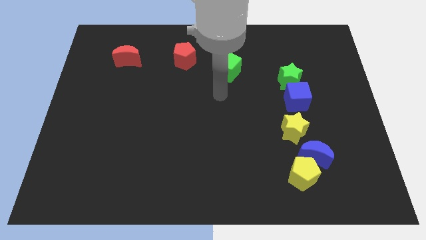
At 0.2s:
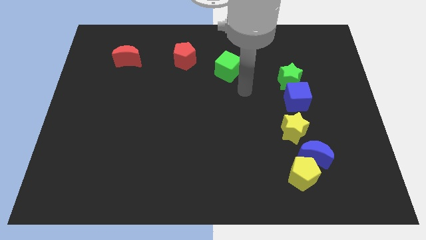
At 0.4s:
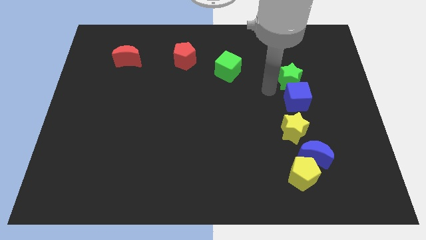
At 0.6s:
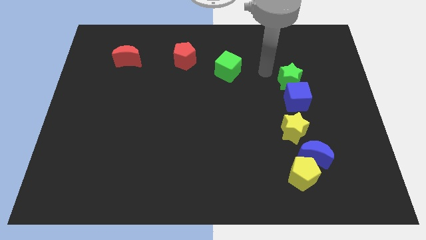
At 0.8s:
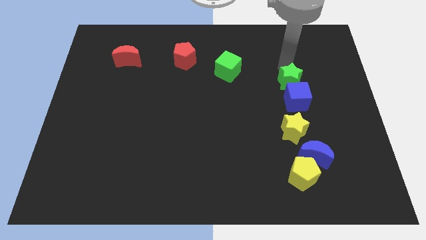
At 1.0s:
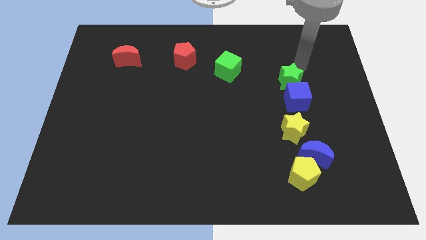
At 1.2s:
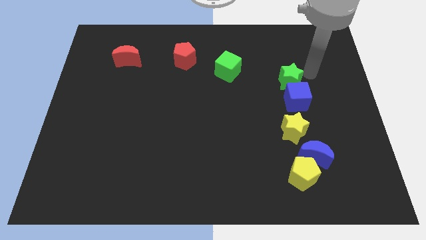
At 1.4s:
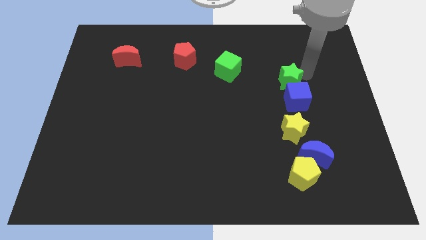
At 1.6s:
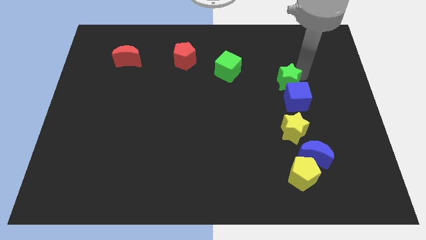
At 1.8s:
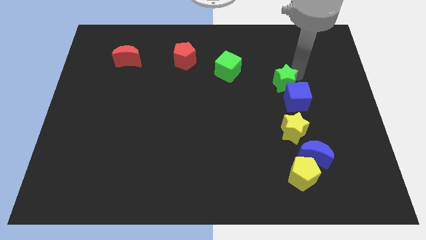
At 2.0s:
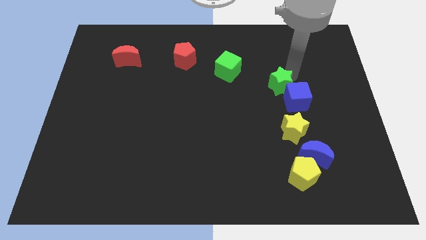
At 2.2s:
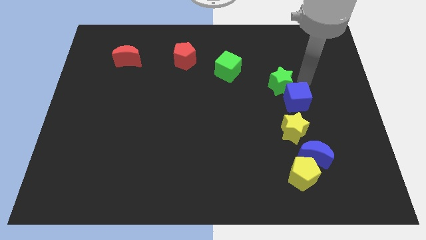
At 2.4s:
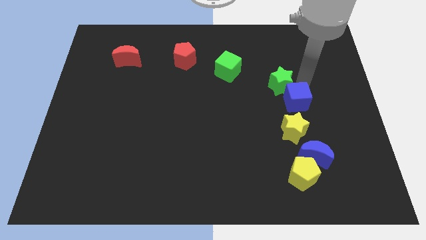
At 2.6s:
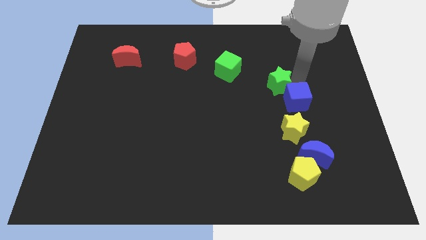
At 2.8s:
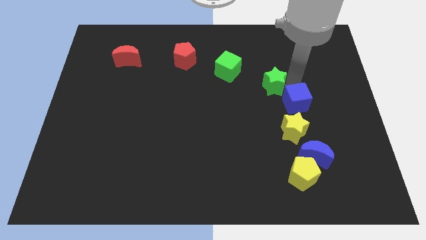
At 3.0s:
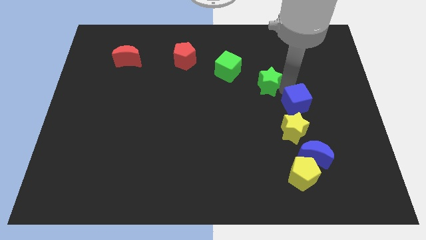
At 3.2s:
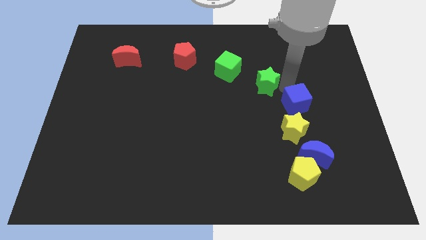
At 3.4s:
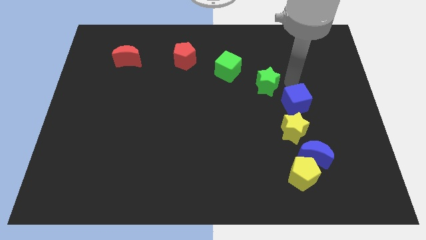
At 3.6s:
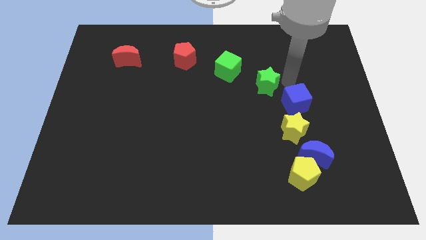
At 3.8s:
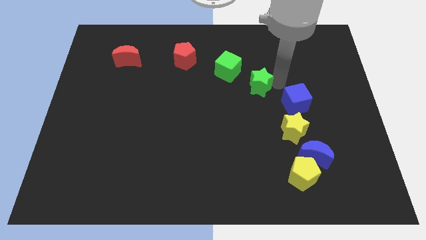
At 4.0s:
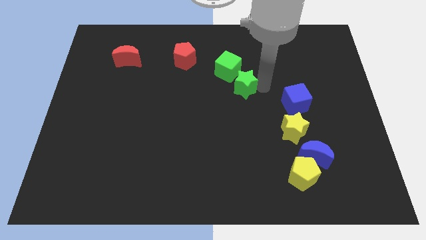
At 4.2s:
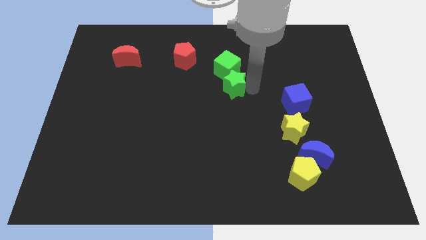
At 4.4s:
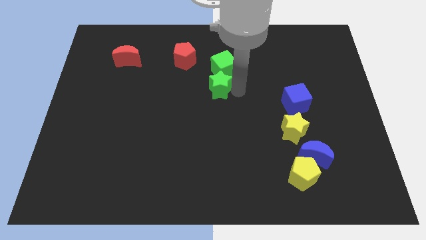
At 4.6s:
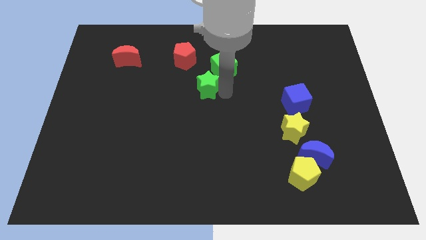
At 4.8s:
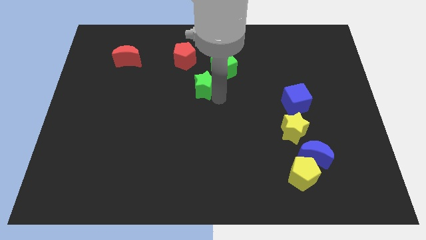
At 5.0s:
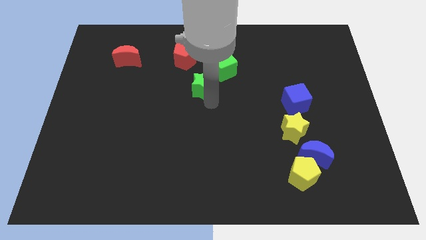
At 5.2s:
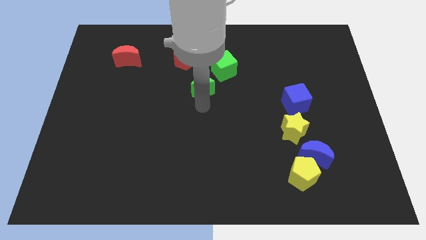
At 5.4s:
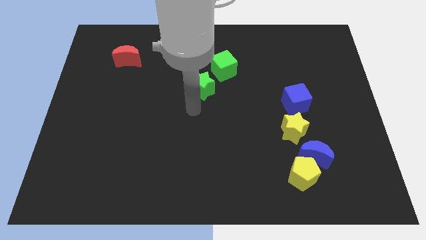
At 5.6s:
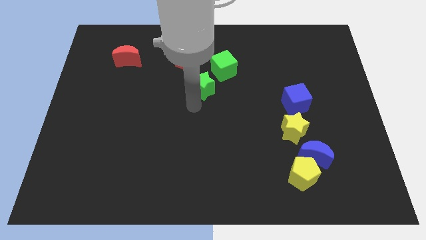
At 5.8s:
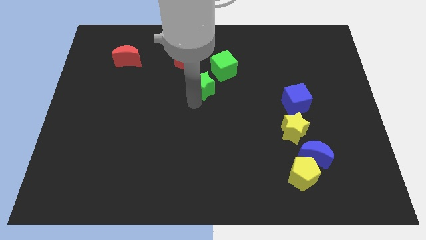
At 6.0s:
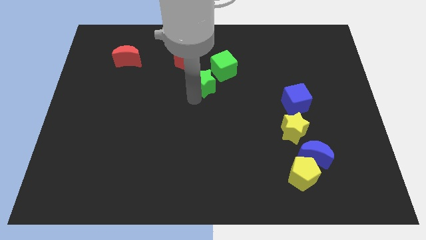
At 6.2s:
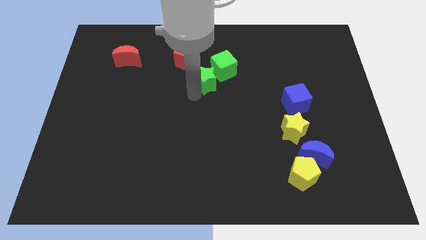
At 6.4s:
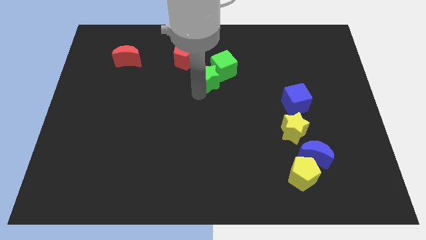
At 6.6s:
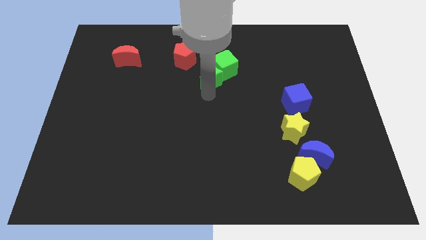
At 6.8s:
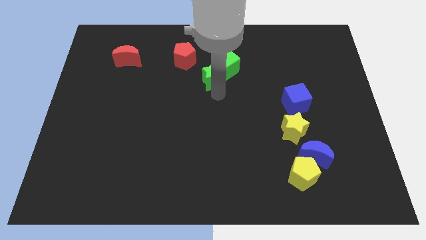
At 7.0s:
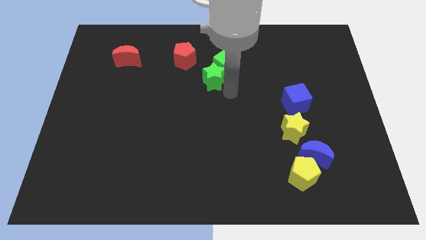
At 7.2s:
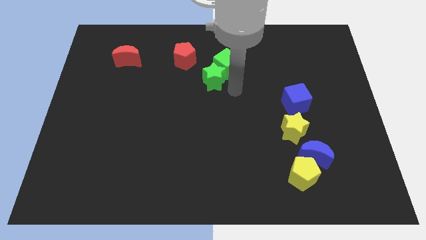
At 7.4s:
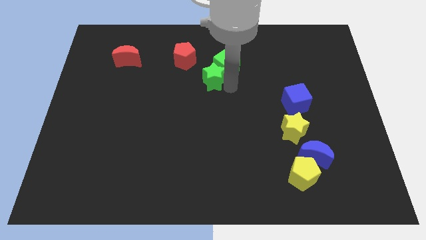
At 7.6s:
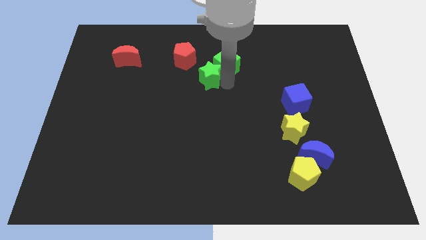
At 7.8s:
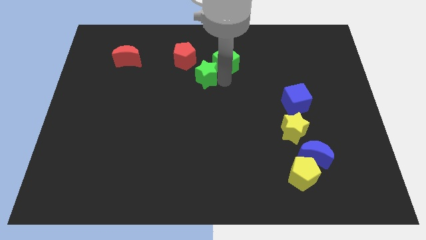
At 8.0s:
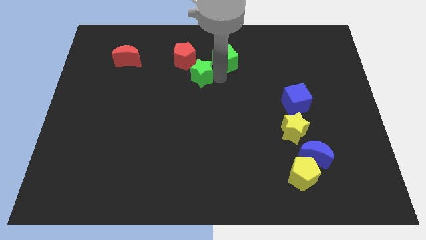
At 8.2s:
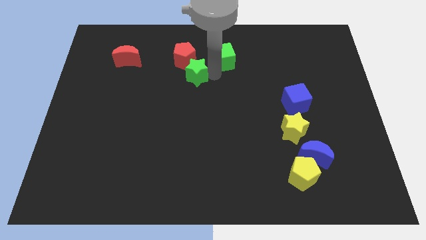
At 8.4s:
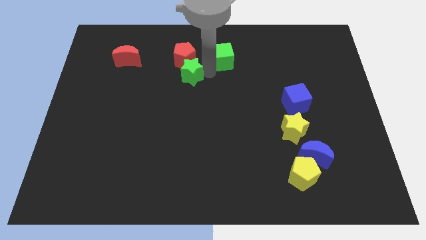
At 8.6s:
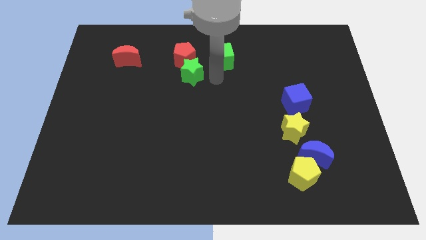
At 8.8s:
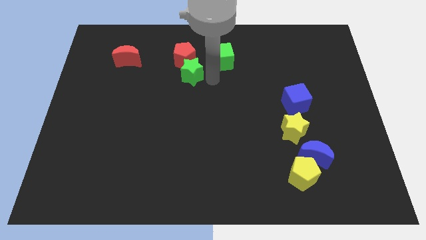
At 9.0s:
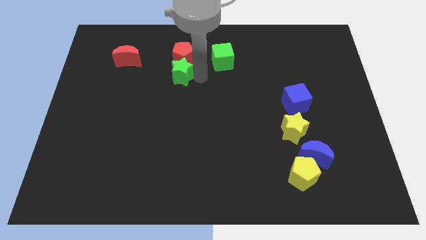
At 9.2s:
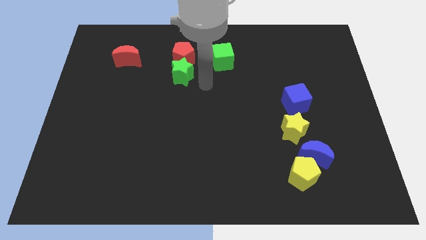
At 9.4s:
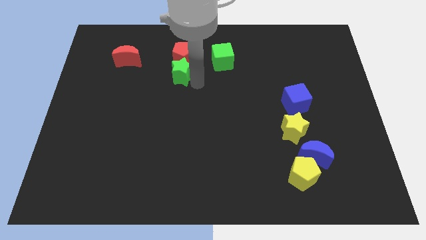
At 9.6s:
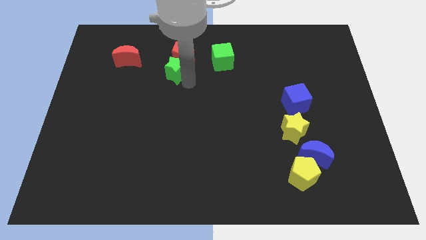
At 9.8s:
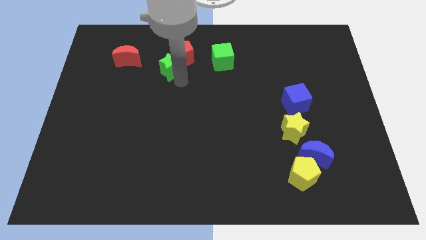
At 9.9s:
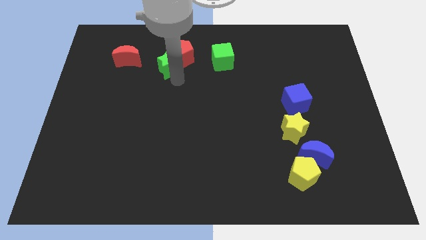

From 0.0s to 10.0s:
move the green star to the left of the red pentagon

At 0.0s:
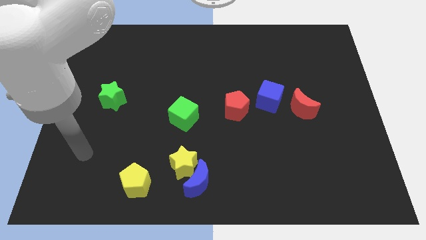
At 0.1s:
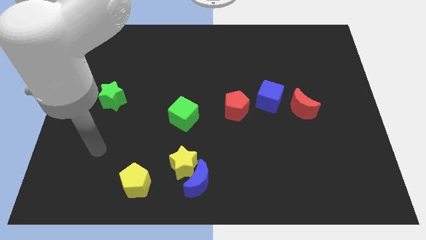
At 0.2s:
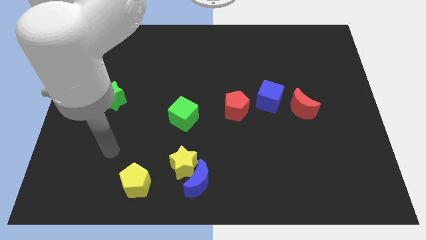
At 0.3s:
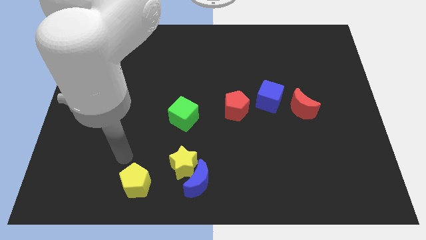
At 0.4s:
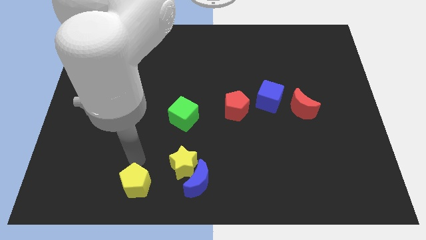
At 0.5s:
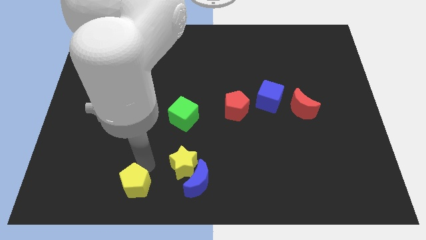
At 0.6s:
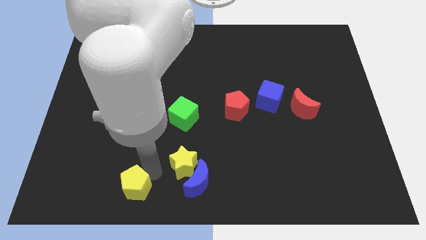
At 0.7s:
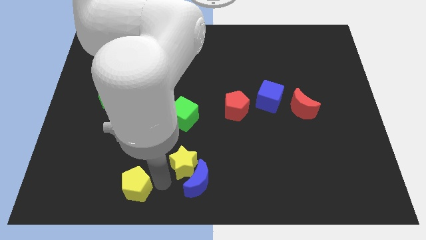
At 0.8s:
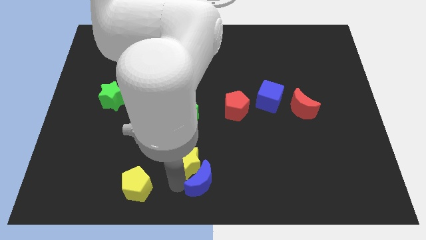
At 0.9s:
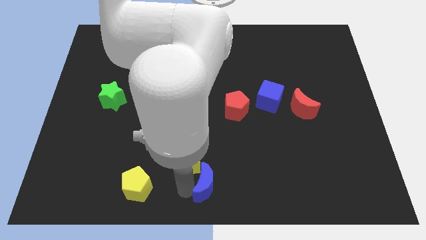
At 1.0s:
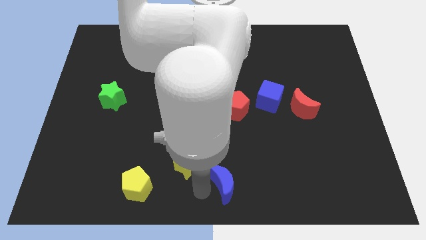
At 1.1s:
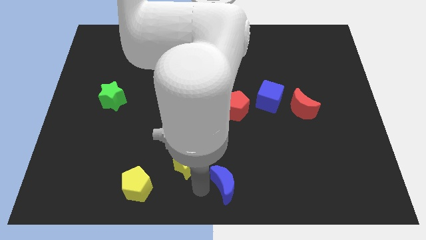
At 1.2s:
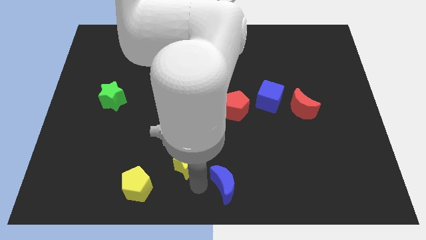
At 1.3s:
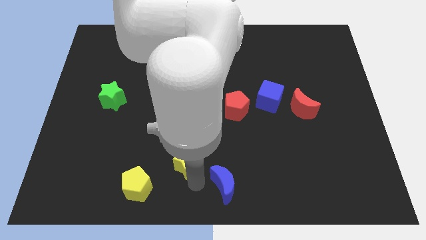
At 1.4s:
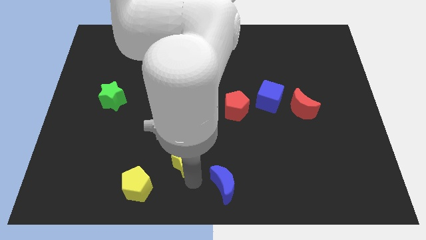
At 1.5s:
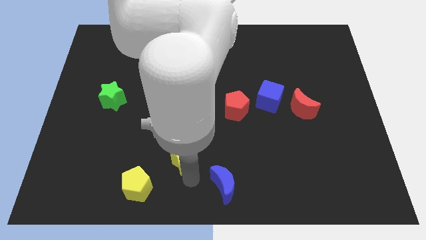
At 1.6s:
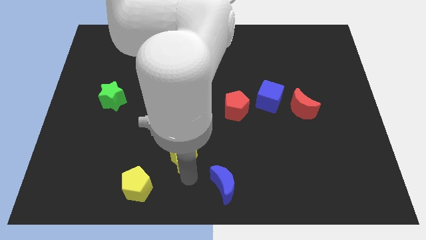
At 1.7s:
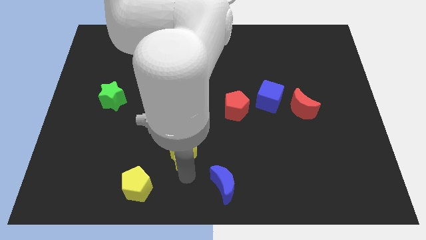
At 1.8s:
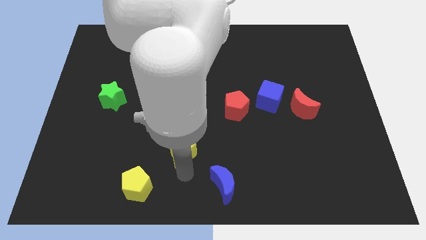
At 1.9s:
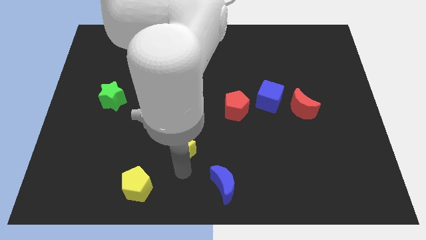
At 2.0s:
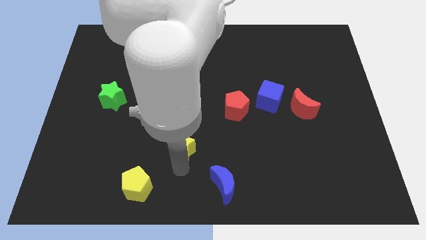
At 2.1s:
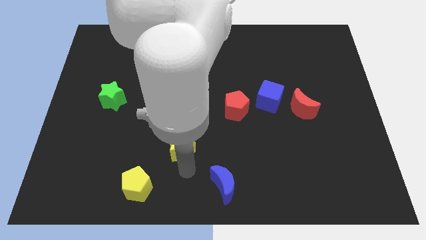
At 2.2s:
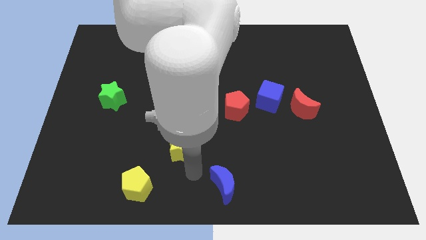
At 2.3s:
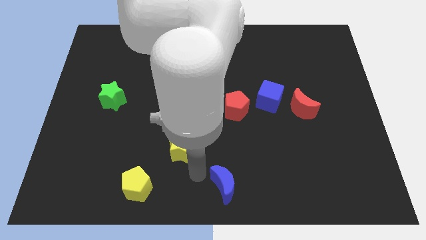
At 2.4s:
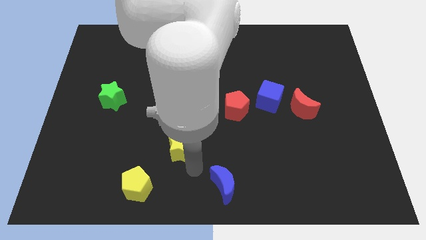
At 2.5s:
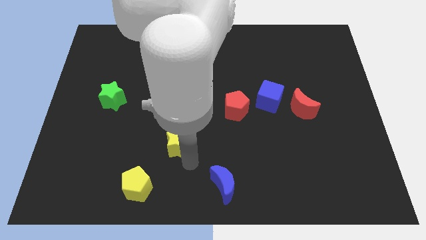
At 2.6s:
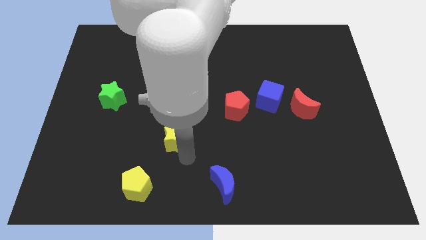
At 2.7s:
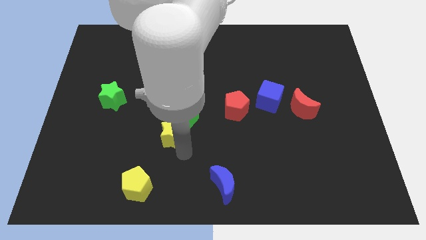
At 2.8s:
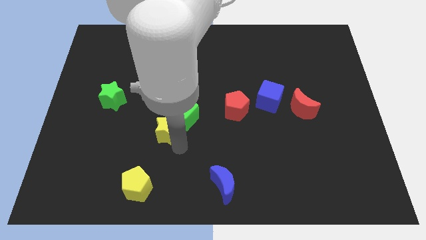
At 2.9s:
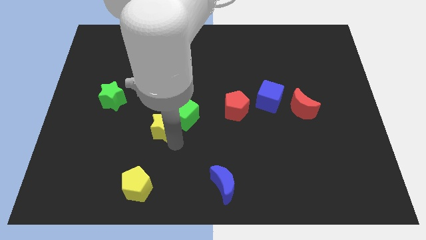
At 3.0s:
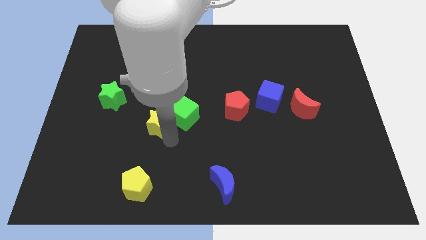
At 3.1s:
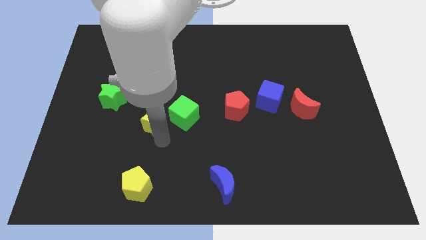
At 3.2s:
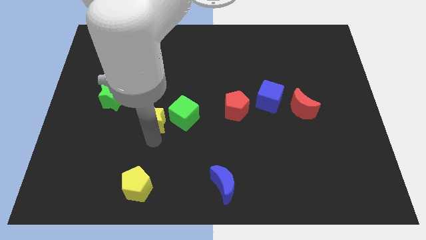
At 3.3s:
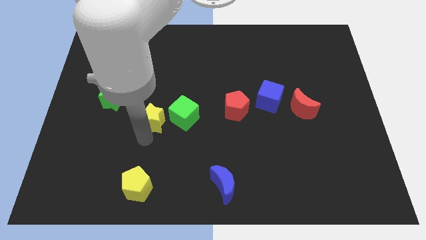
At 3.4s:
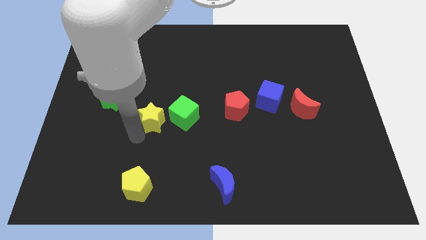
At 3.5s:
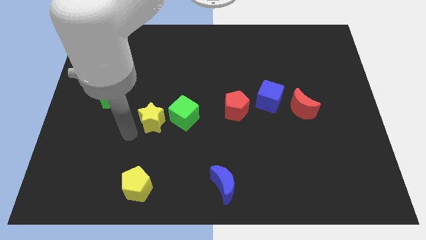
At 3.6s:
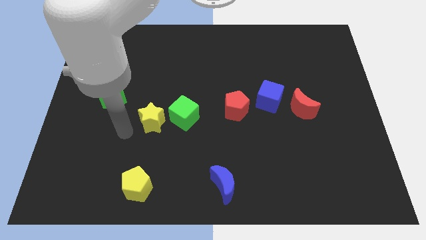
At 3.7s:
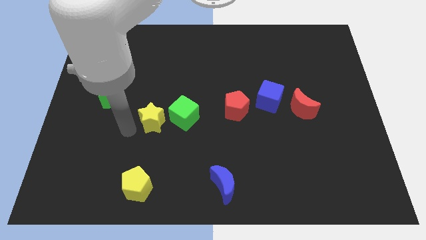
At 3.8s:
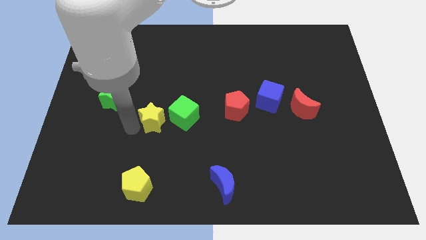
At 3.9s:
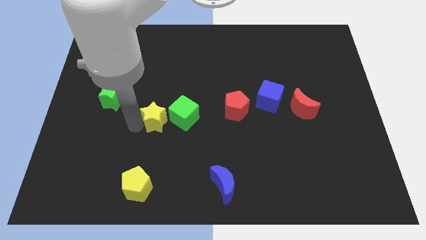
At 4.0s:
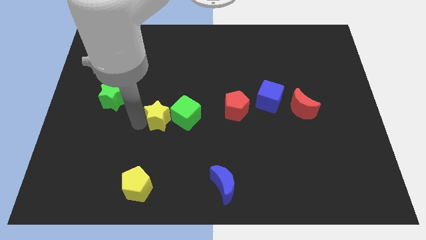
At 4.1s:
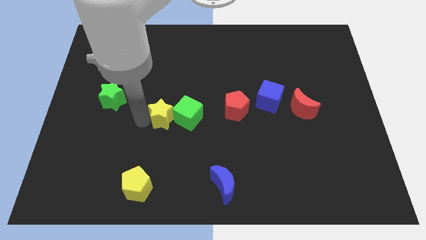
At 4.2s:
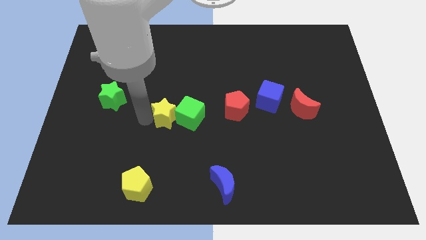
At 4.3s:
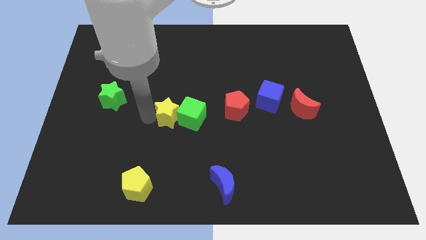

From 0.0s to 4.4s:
put the yellow star left of the red pentagon
